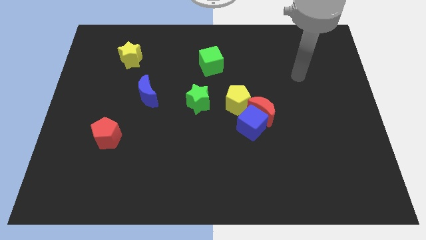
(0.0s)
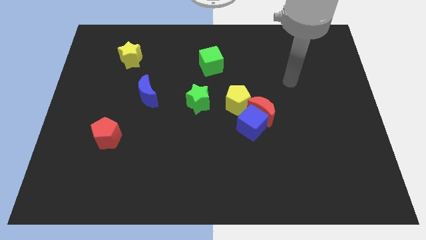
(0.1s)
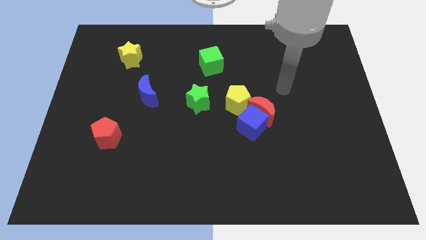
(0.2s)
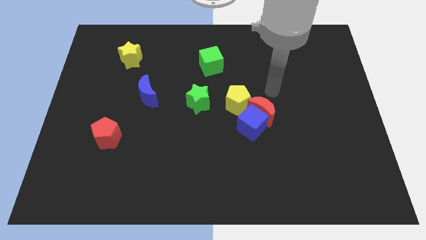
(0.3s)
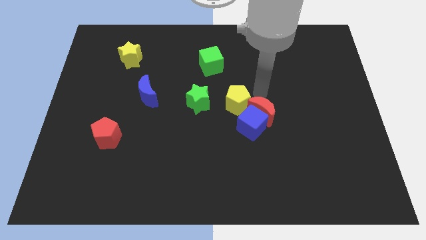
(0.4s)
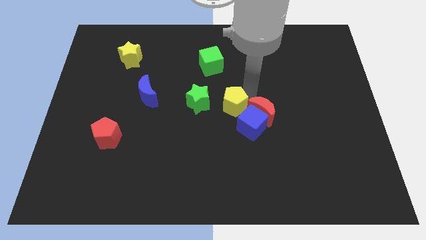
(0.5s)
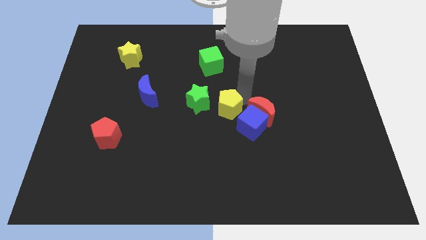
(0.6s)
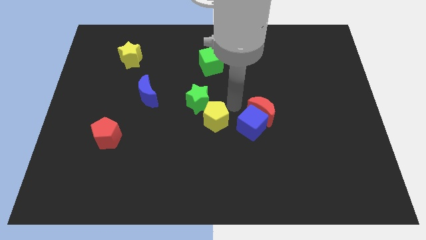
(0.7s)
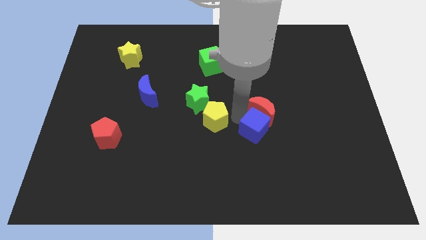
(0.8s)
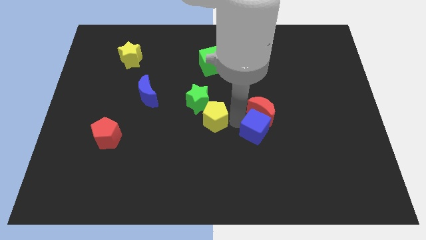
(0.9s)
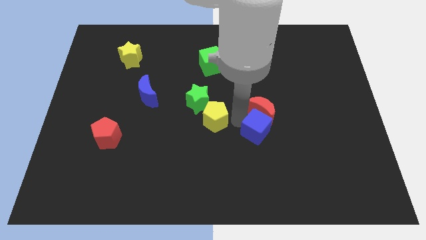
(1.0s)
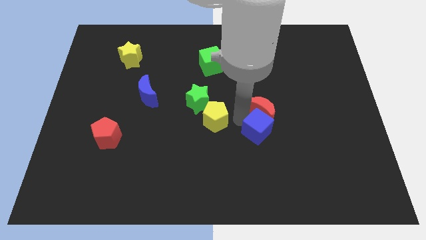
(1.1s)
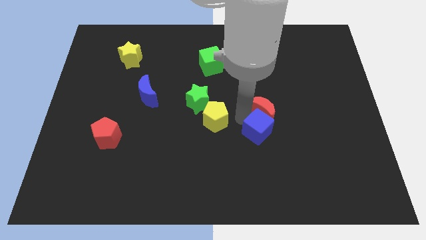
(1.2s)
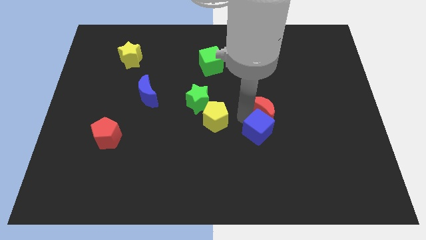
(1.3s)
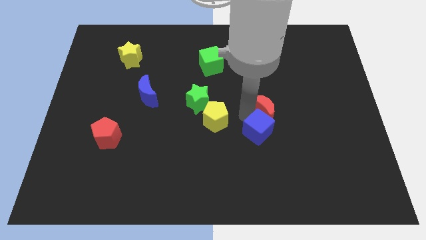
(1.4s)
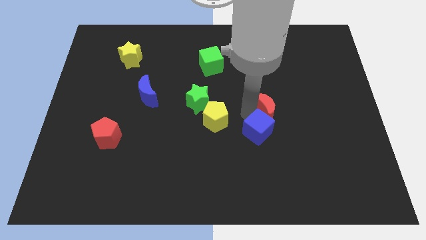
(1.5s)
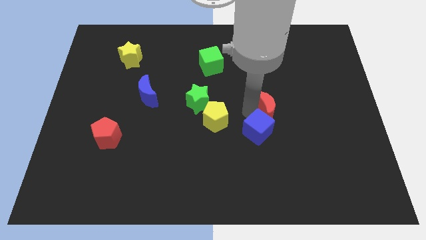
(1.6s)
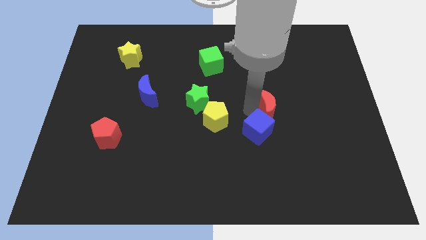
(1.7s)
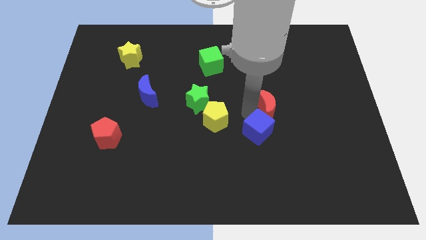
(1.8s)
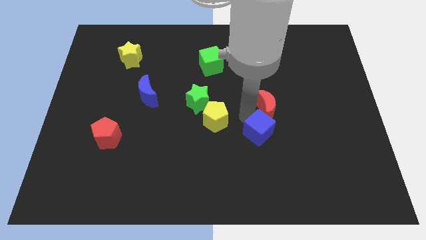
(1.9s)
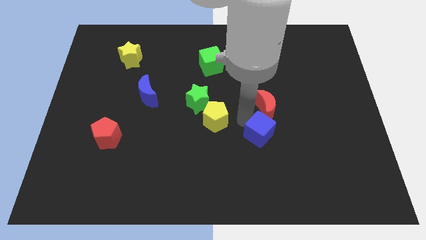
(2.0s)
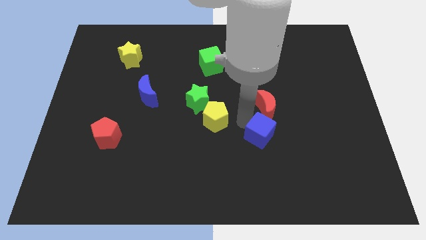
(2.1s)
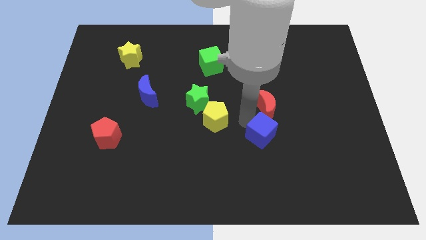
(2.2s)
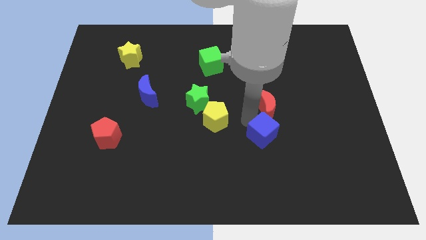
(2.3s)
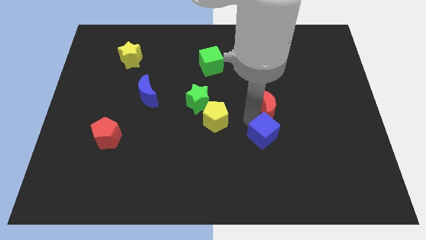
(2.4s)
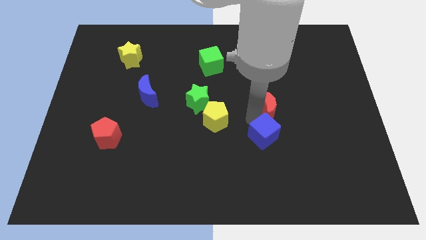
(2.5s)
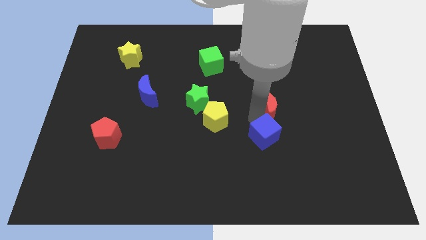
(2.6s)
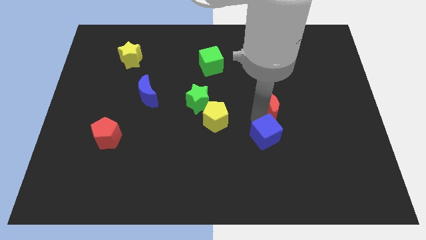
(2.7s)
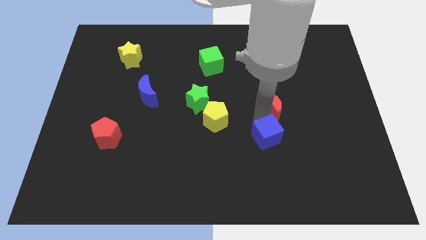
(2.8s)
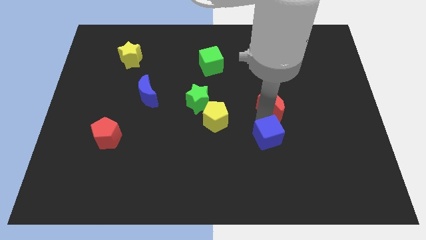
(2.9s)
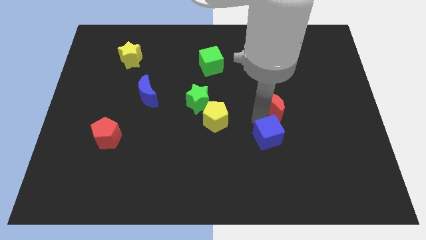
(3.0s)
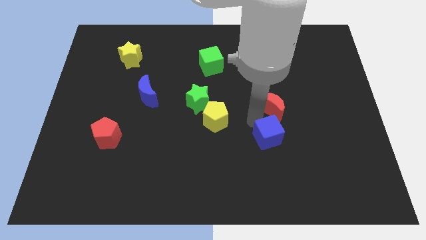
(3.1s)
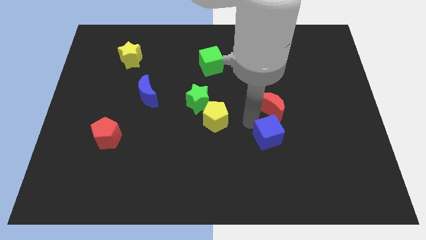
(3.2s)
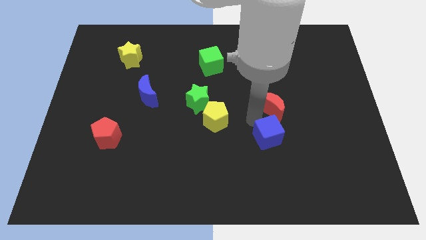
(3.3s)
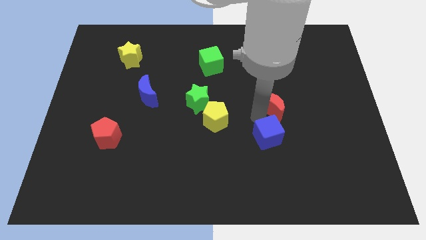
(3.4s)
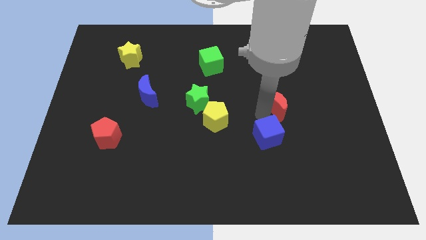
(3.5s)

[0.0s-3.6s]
pull the red moon apart from the blue cube and yellow pentagon

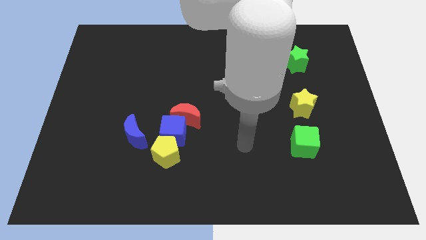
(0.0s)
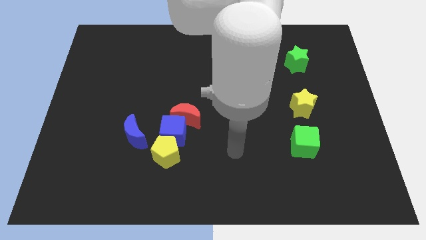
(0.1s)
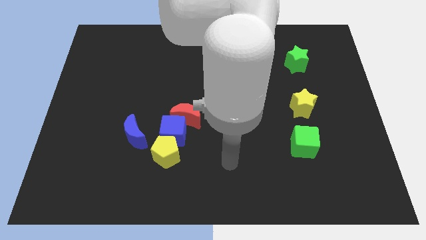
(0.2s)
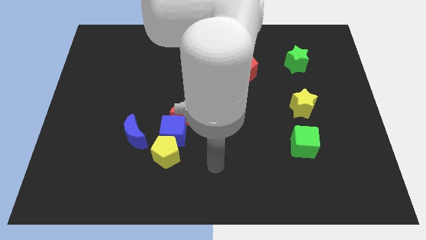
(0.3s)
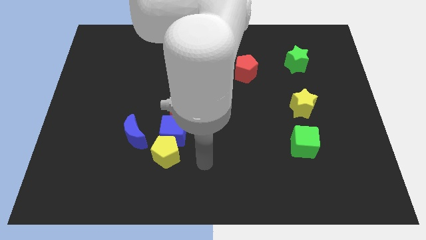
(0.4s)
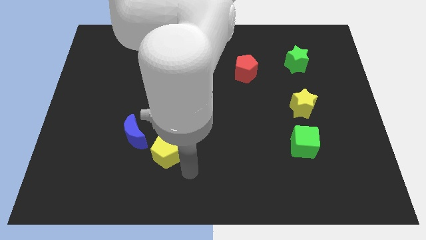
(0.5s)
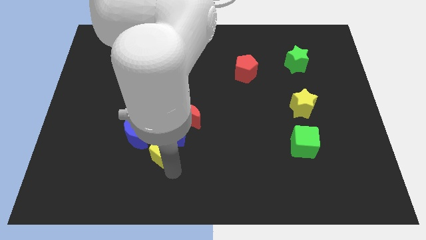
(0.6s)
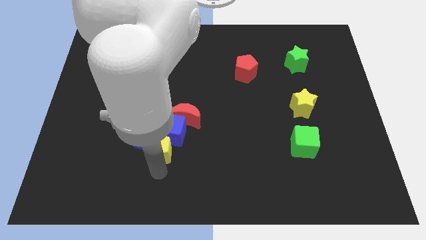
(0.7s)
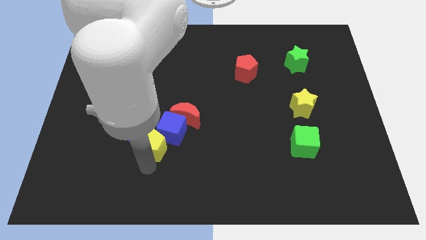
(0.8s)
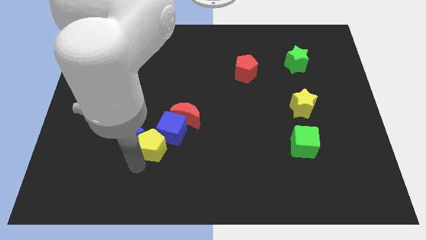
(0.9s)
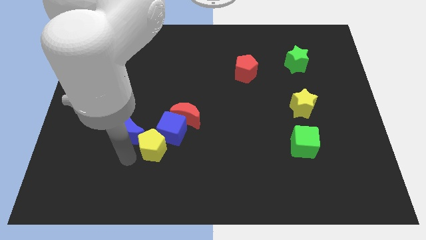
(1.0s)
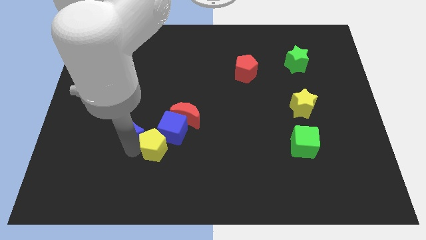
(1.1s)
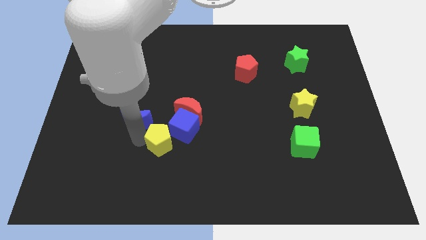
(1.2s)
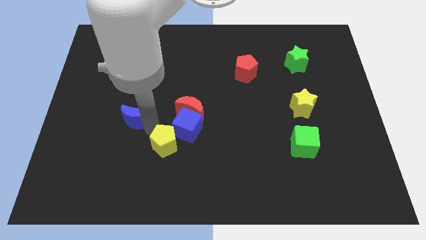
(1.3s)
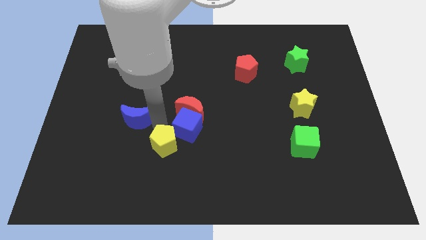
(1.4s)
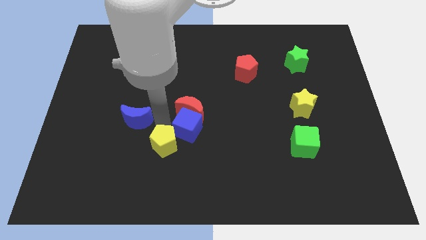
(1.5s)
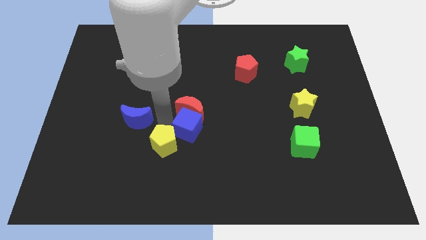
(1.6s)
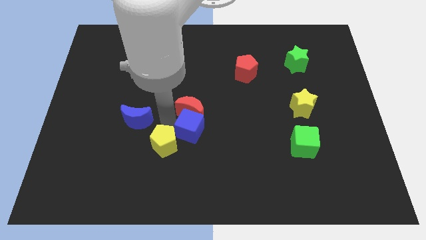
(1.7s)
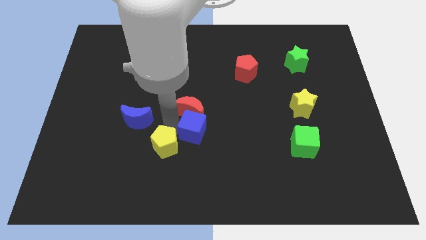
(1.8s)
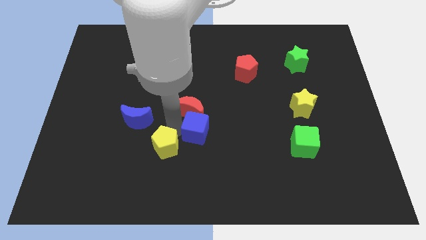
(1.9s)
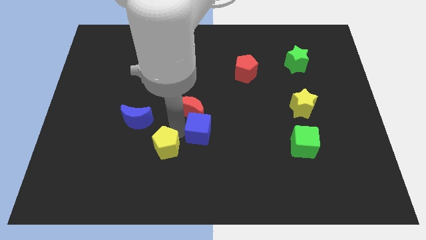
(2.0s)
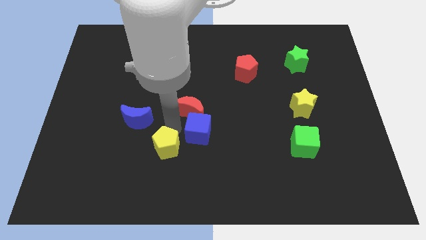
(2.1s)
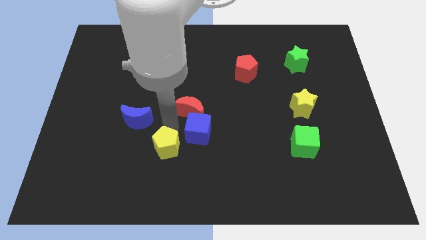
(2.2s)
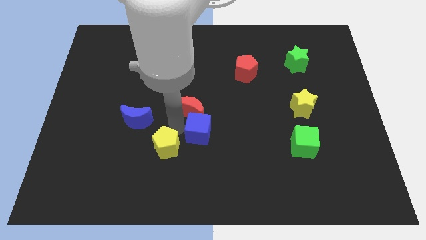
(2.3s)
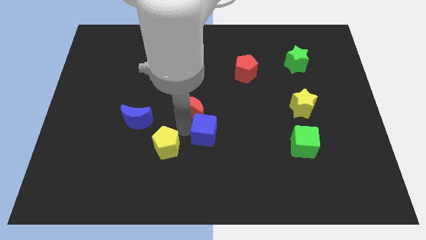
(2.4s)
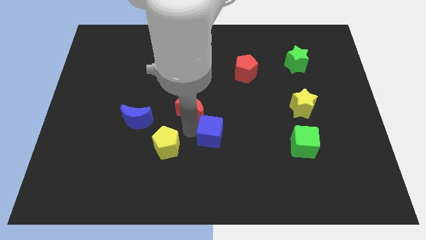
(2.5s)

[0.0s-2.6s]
separate the blue cube from the red moon, yellow pentagon, and blue moon

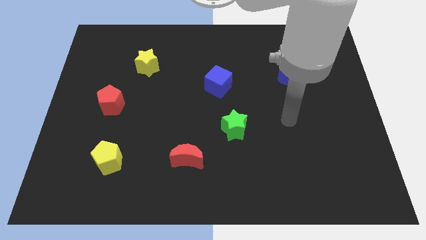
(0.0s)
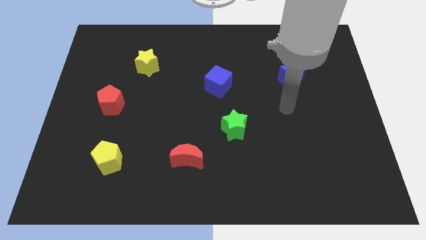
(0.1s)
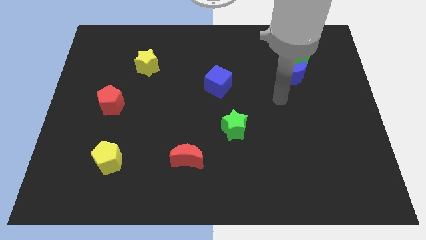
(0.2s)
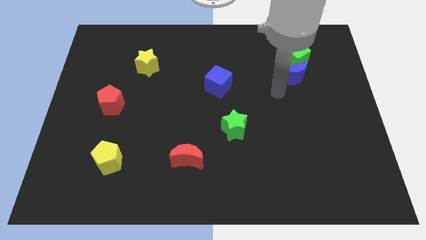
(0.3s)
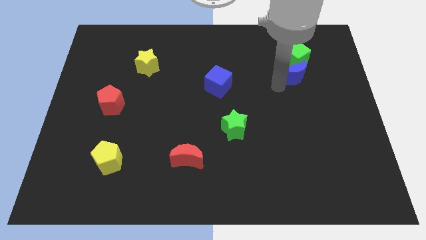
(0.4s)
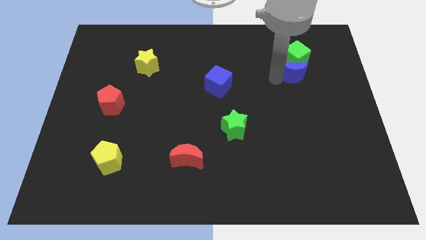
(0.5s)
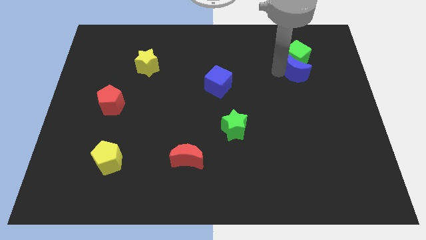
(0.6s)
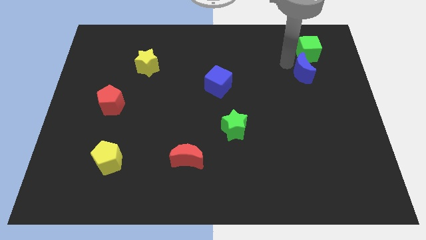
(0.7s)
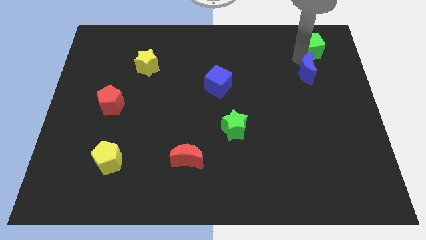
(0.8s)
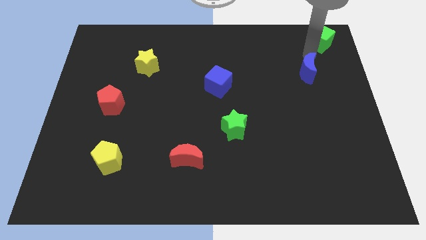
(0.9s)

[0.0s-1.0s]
separate the blue moon from the green cube

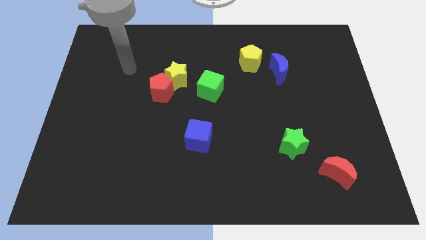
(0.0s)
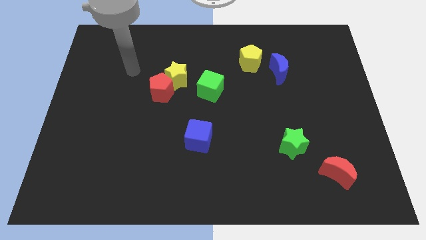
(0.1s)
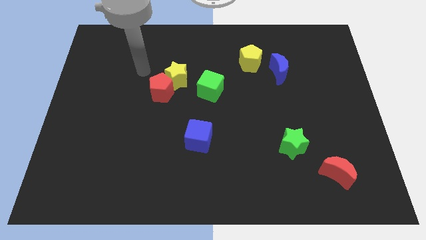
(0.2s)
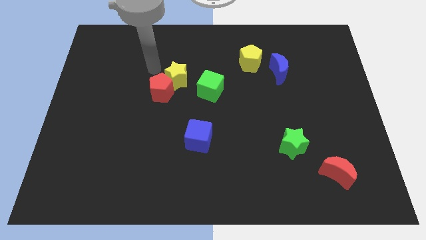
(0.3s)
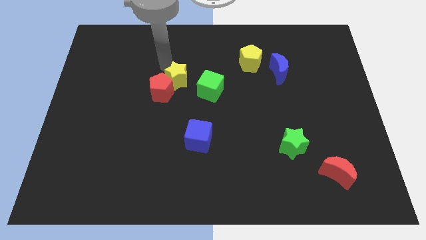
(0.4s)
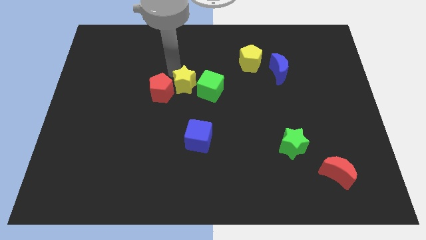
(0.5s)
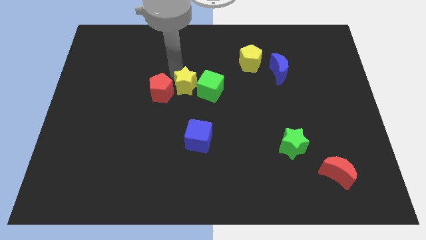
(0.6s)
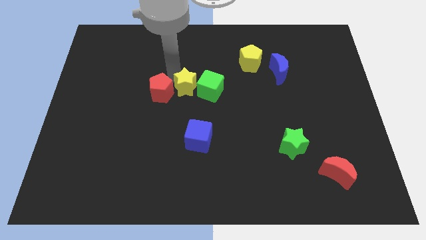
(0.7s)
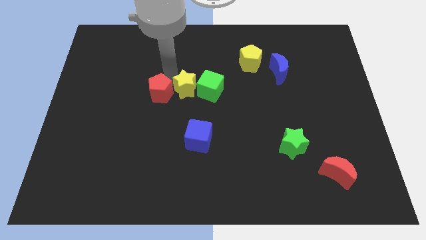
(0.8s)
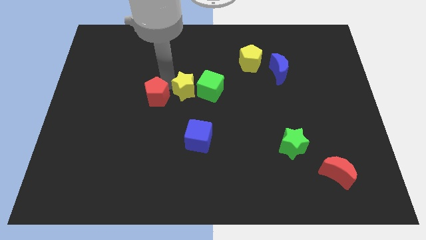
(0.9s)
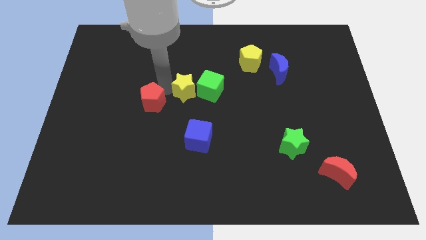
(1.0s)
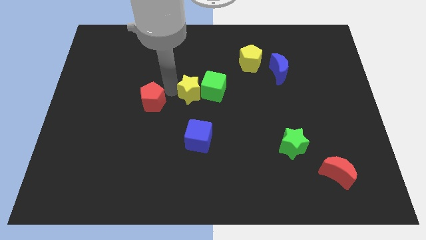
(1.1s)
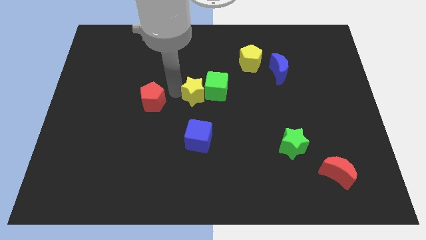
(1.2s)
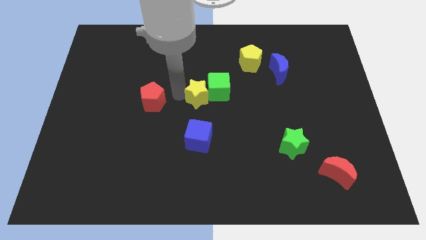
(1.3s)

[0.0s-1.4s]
move the red pentagon away from the yellow star

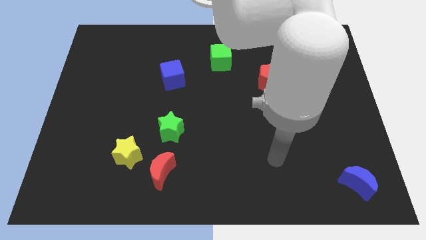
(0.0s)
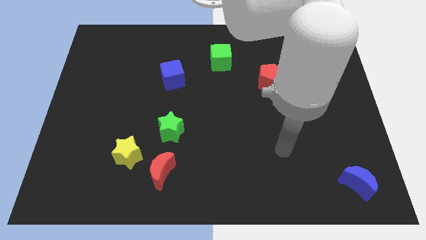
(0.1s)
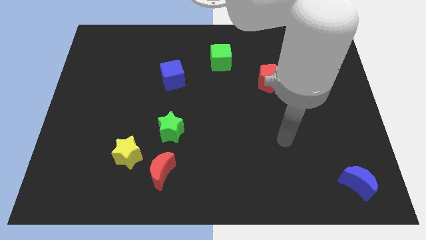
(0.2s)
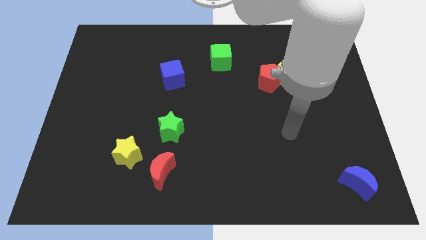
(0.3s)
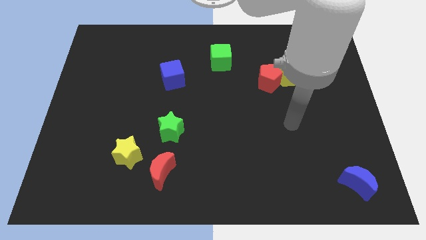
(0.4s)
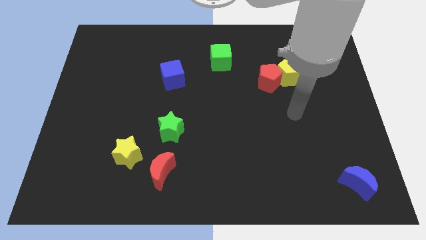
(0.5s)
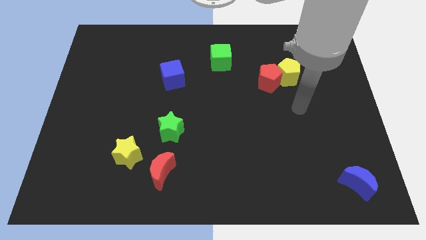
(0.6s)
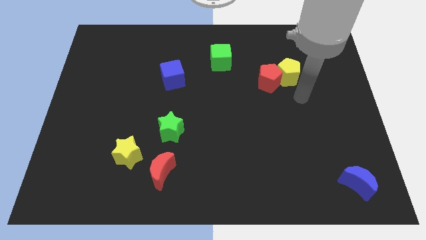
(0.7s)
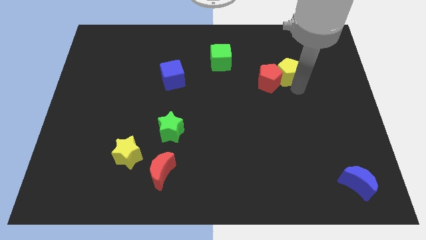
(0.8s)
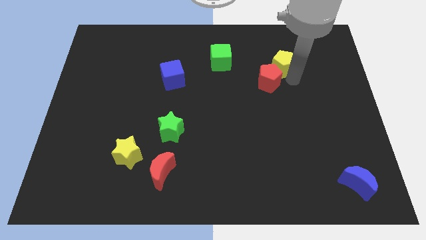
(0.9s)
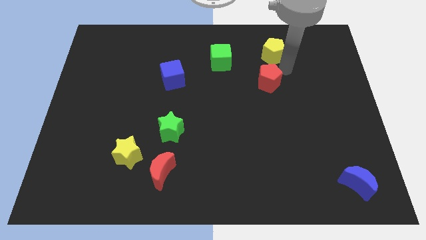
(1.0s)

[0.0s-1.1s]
pull the red pentagon apart from the yellow pentagon
